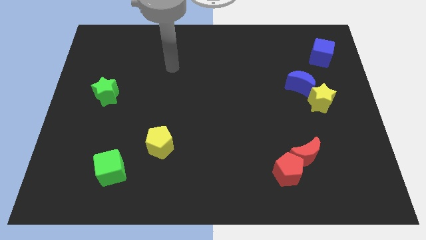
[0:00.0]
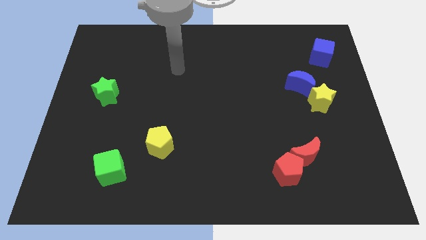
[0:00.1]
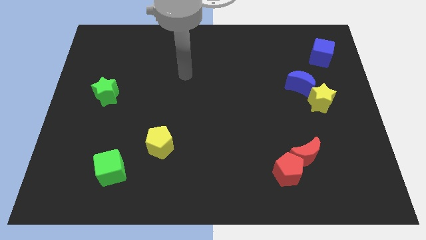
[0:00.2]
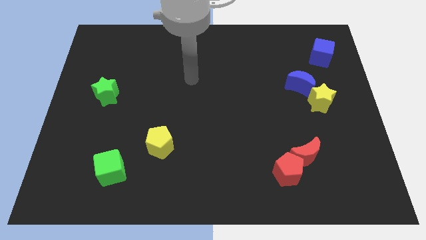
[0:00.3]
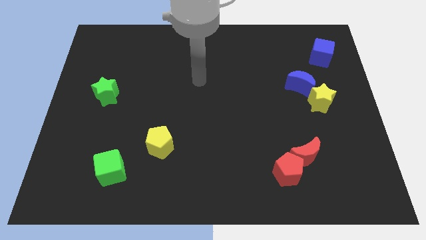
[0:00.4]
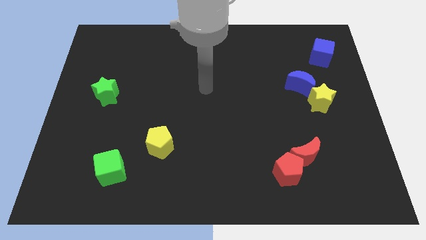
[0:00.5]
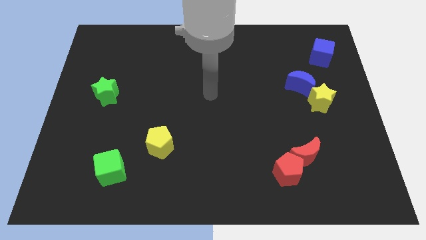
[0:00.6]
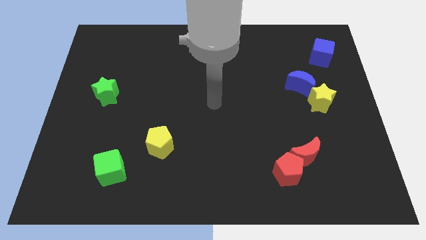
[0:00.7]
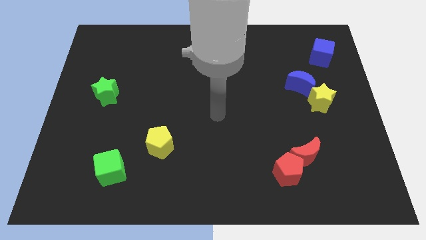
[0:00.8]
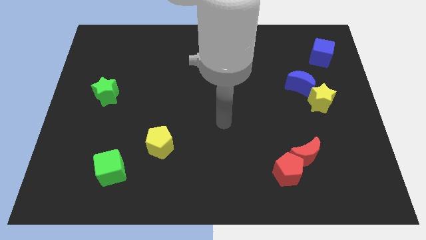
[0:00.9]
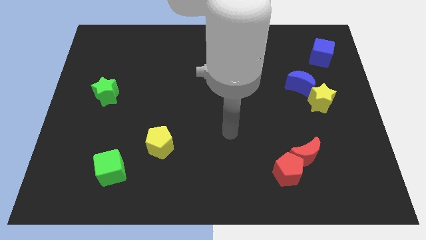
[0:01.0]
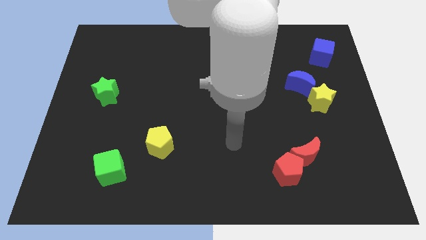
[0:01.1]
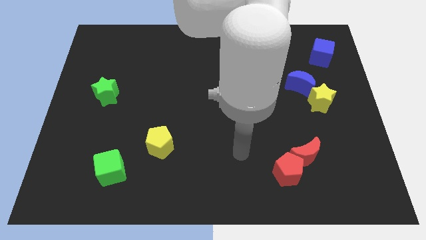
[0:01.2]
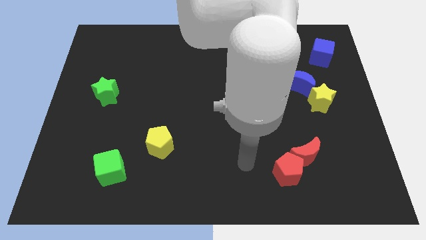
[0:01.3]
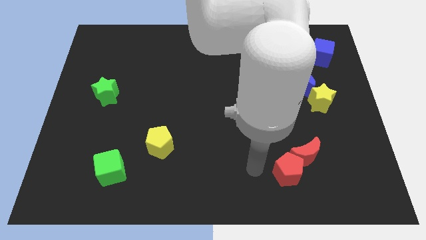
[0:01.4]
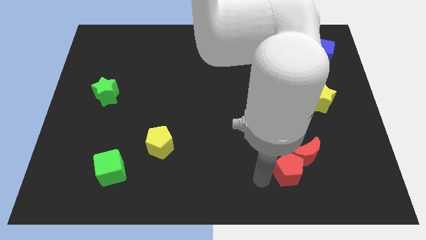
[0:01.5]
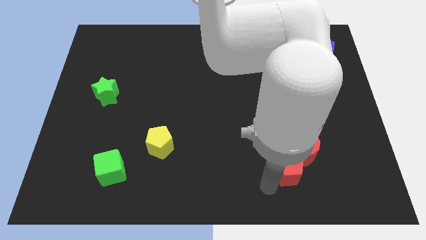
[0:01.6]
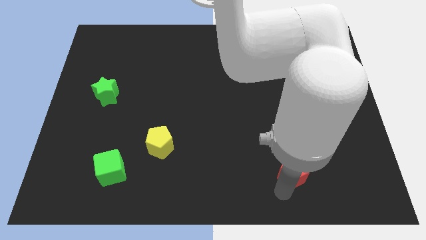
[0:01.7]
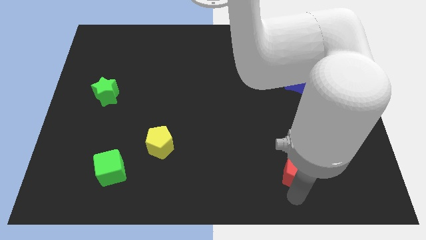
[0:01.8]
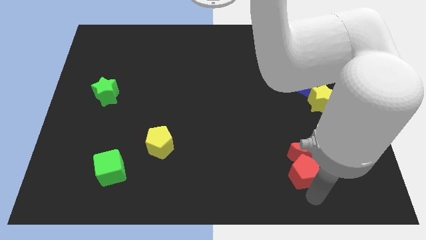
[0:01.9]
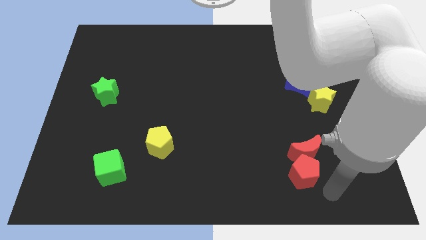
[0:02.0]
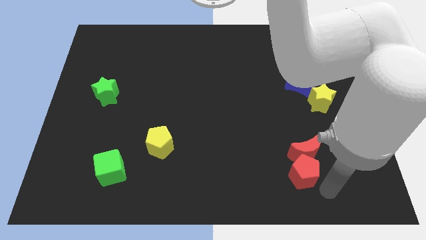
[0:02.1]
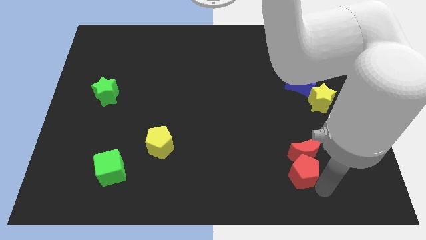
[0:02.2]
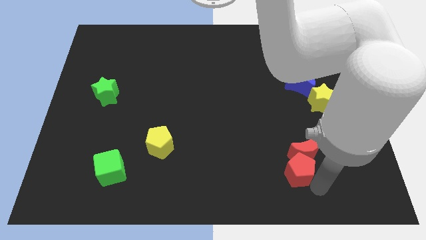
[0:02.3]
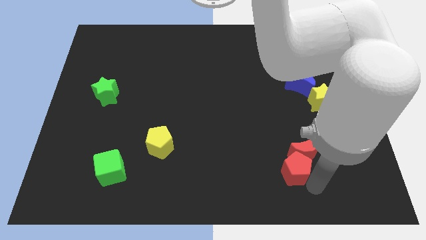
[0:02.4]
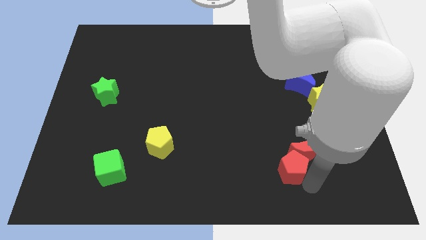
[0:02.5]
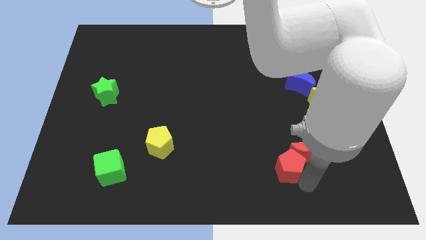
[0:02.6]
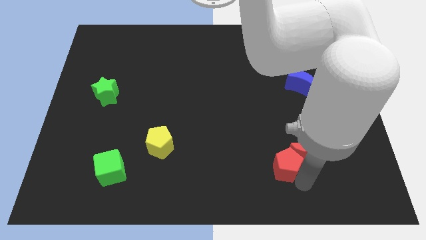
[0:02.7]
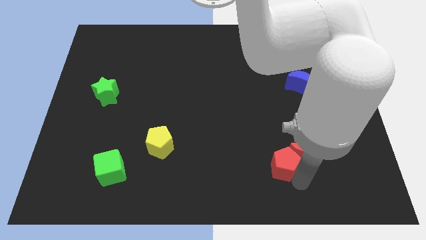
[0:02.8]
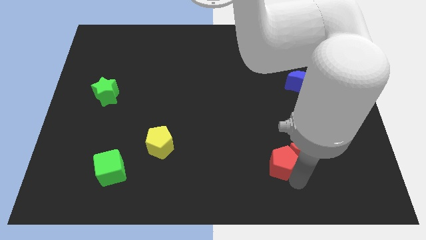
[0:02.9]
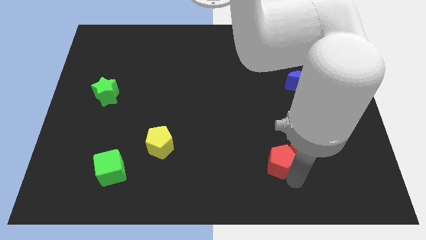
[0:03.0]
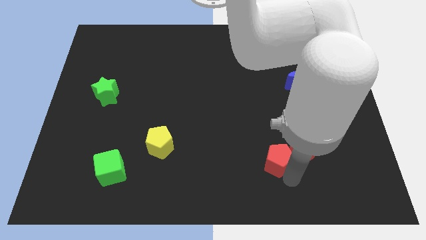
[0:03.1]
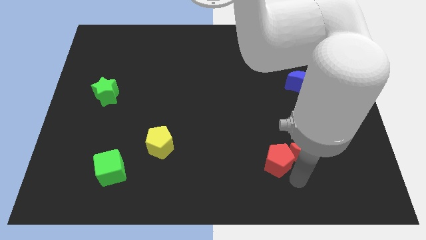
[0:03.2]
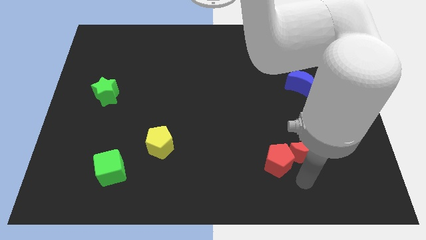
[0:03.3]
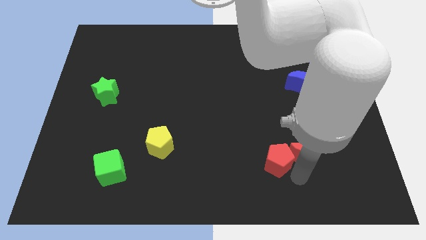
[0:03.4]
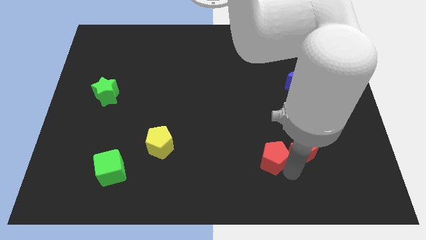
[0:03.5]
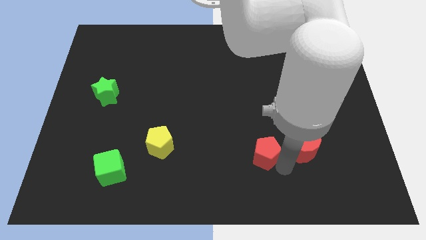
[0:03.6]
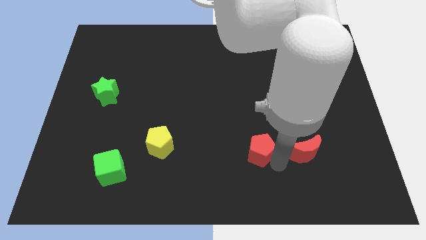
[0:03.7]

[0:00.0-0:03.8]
slightly move the red pentagon up and left

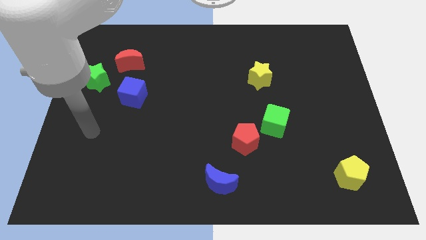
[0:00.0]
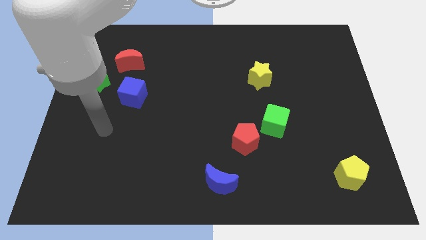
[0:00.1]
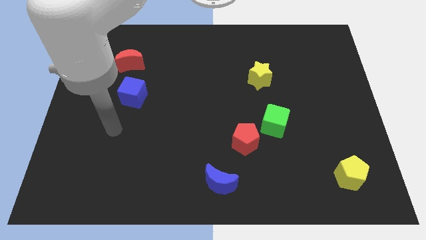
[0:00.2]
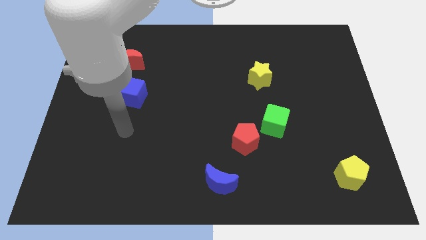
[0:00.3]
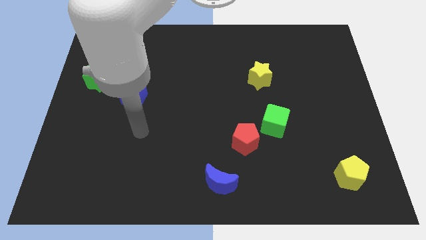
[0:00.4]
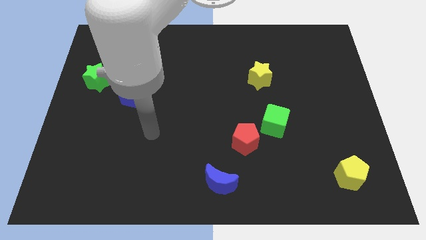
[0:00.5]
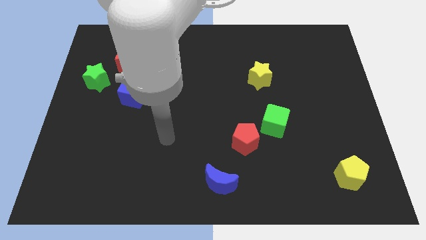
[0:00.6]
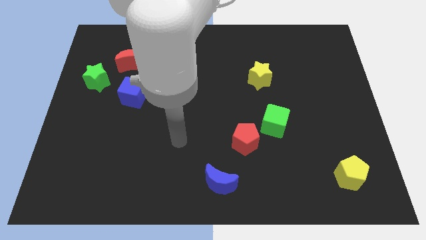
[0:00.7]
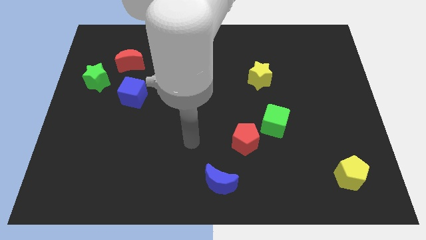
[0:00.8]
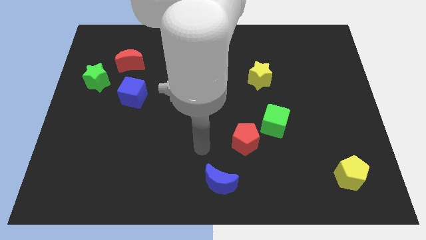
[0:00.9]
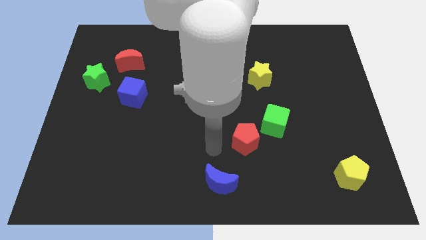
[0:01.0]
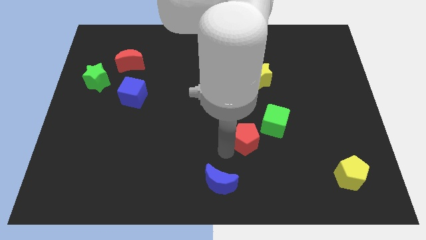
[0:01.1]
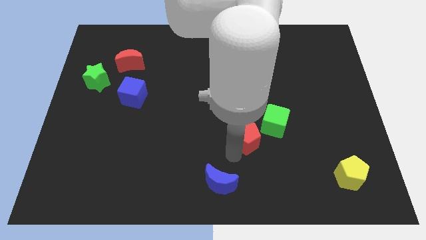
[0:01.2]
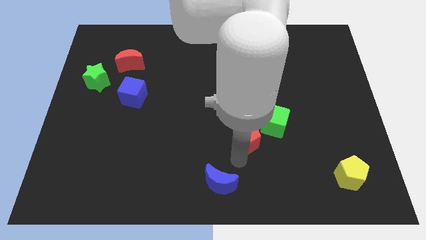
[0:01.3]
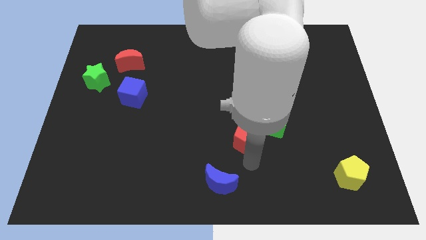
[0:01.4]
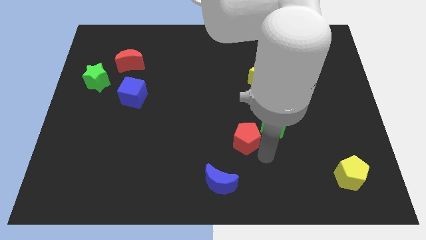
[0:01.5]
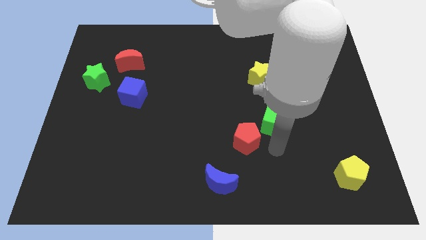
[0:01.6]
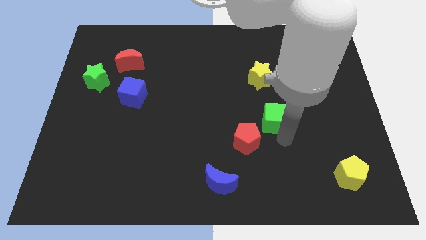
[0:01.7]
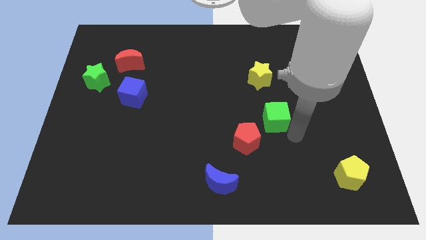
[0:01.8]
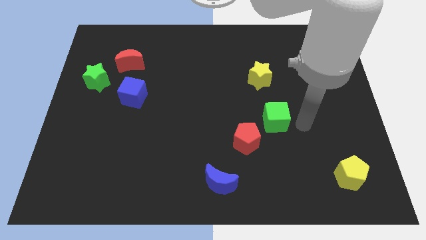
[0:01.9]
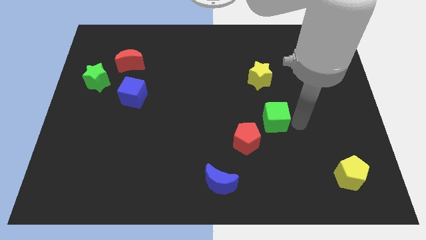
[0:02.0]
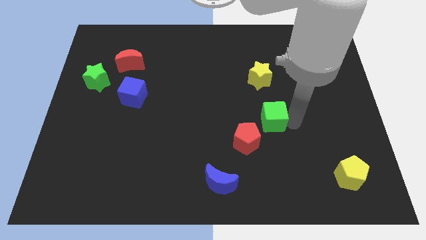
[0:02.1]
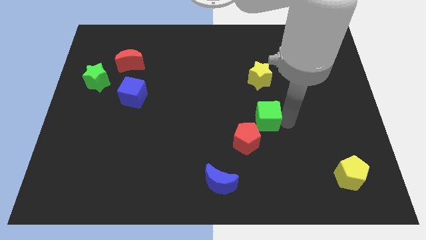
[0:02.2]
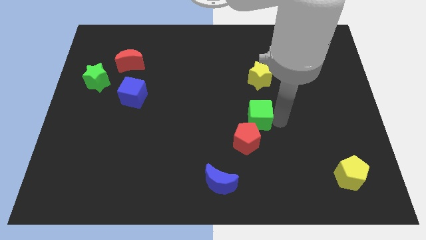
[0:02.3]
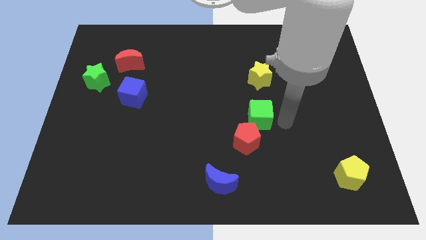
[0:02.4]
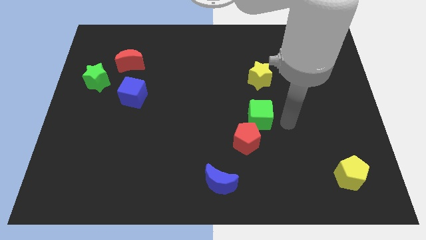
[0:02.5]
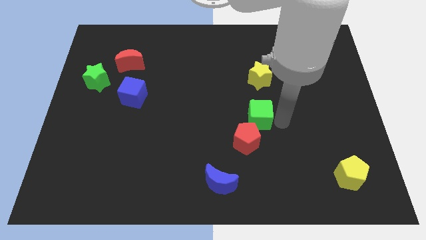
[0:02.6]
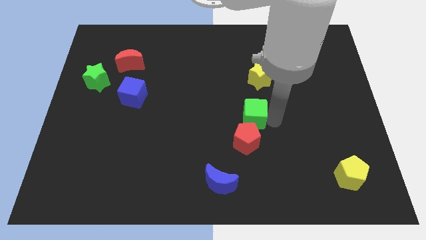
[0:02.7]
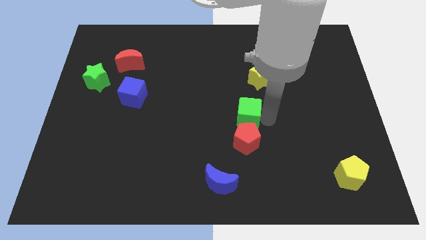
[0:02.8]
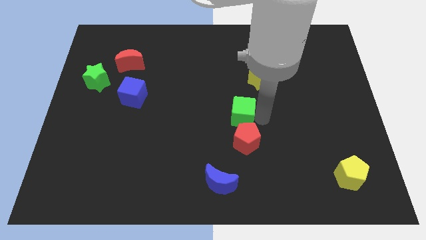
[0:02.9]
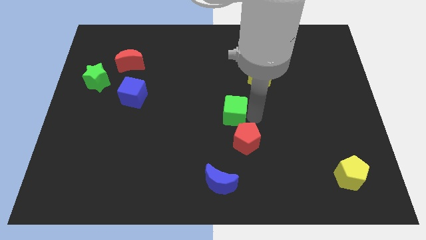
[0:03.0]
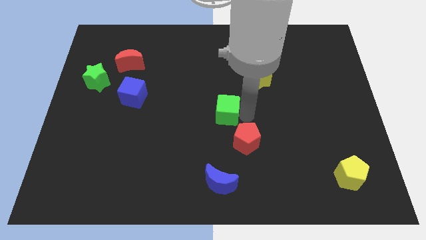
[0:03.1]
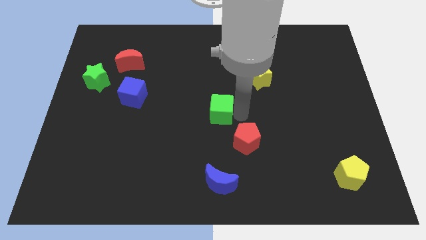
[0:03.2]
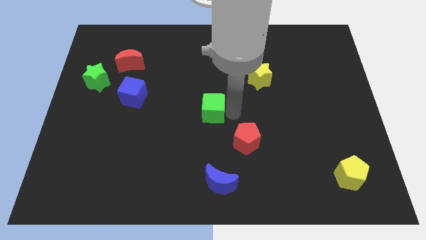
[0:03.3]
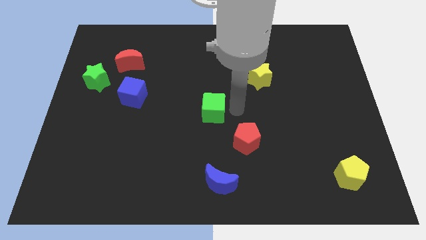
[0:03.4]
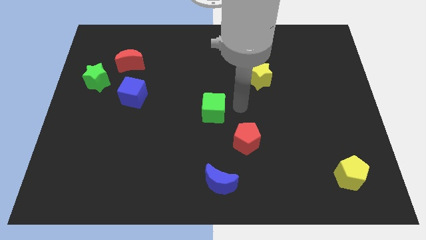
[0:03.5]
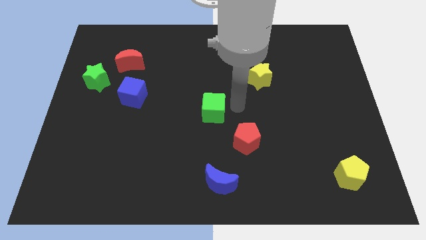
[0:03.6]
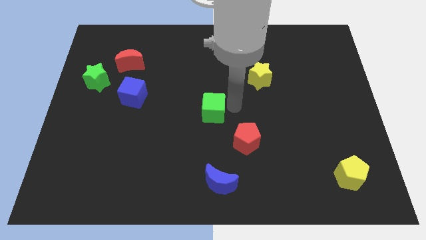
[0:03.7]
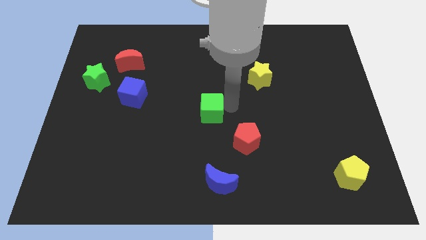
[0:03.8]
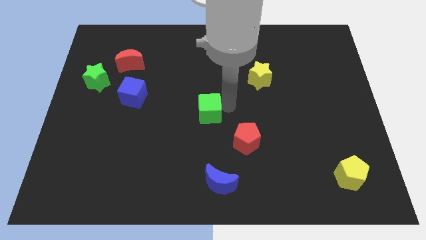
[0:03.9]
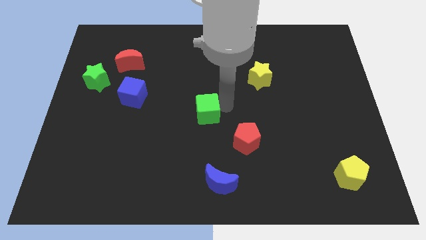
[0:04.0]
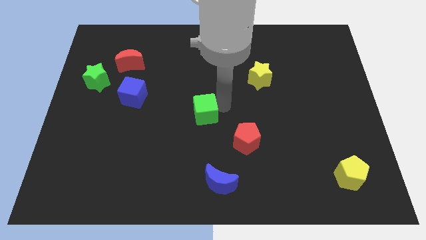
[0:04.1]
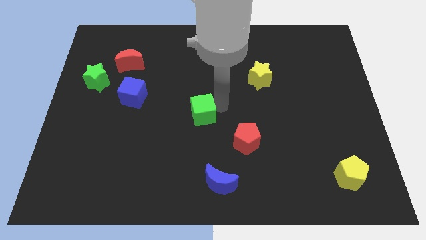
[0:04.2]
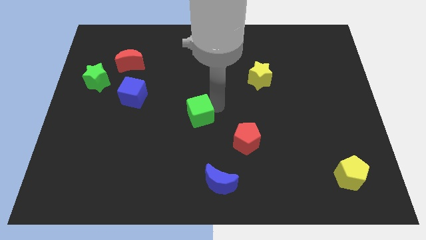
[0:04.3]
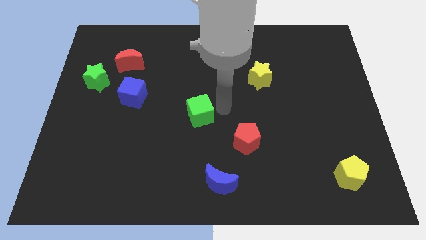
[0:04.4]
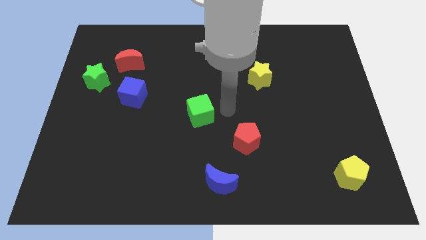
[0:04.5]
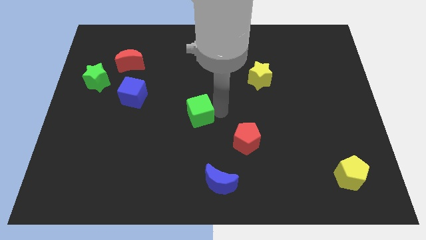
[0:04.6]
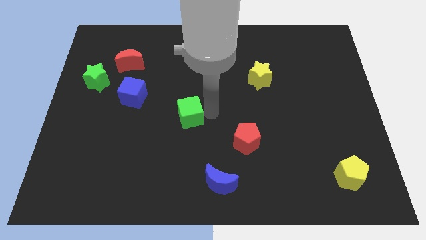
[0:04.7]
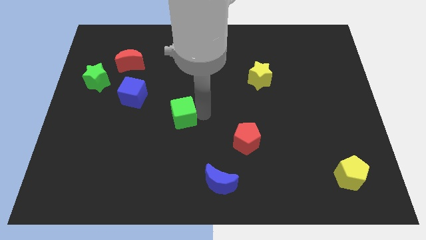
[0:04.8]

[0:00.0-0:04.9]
slide the green cube left
